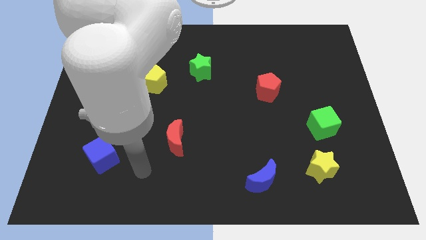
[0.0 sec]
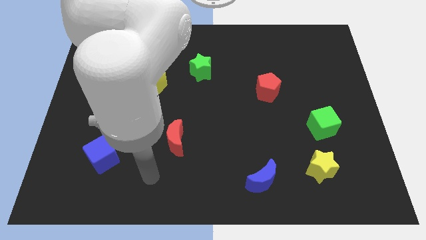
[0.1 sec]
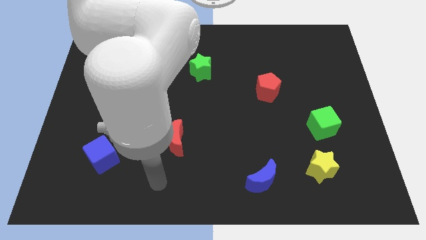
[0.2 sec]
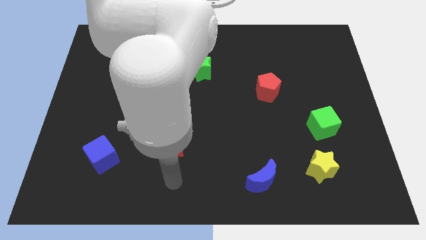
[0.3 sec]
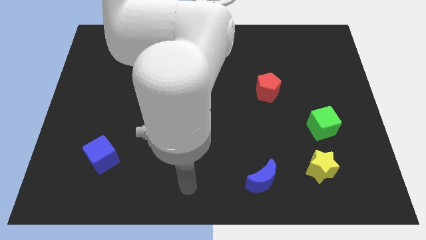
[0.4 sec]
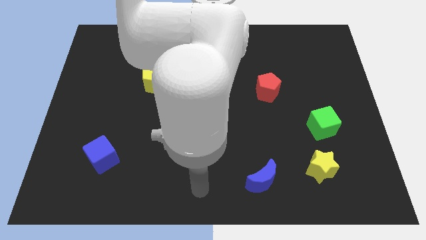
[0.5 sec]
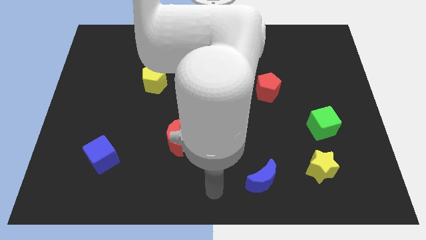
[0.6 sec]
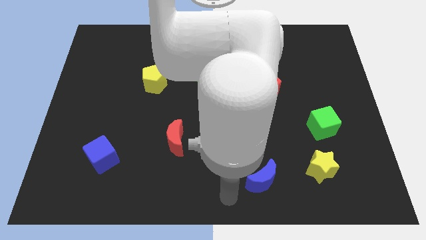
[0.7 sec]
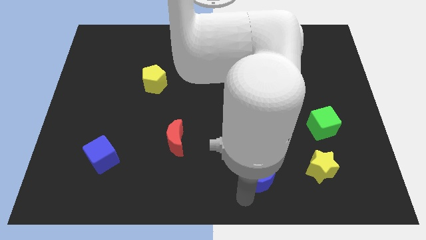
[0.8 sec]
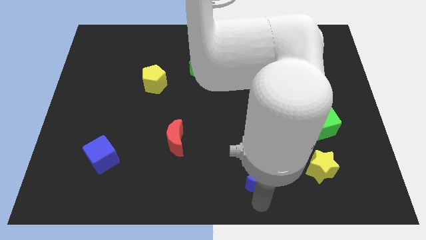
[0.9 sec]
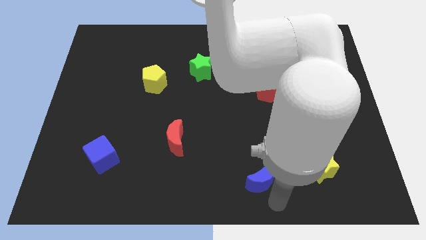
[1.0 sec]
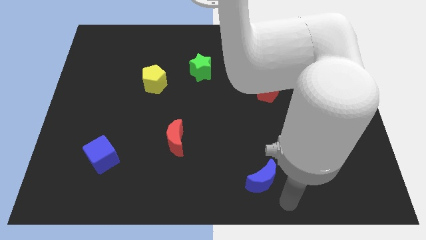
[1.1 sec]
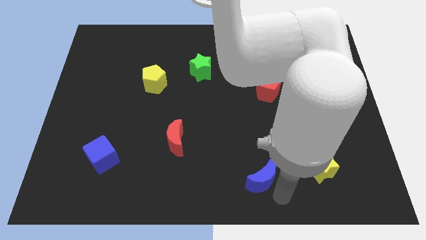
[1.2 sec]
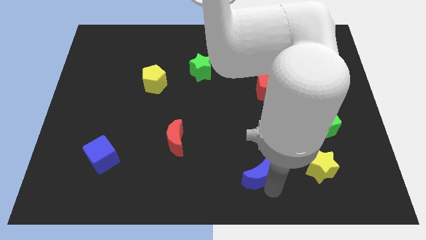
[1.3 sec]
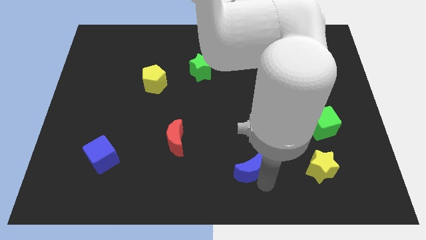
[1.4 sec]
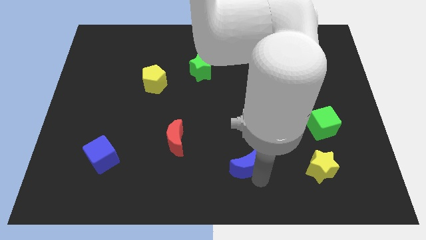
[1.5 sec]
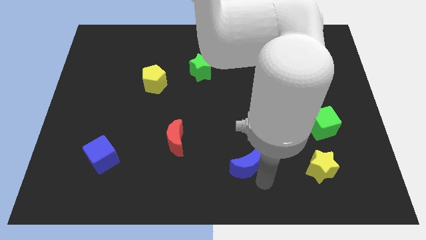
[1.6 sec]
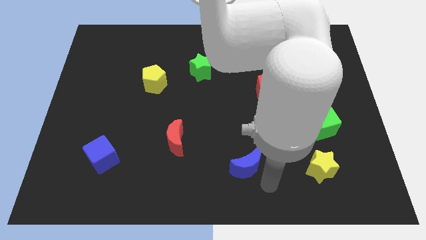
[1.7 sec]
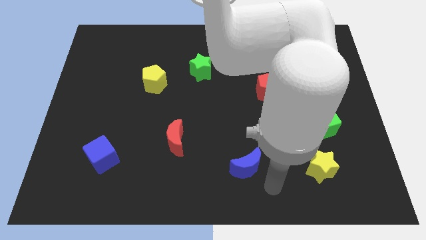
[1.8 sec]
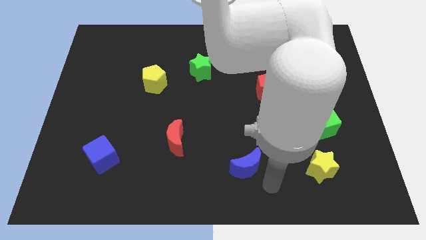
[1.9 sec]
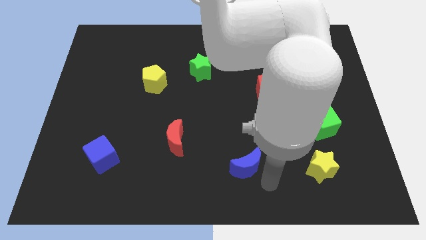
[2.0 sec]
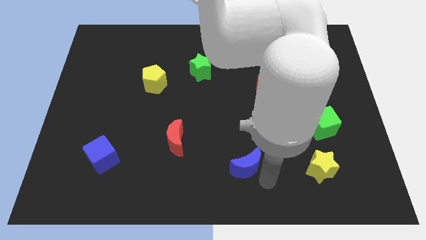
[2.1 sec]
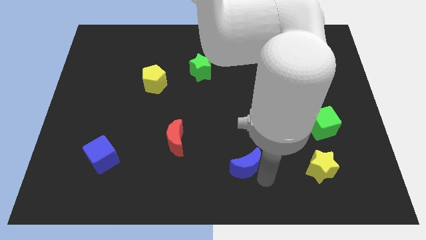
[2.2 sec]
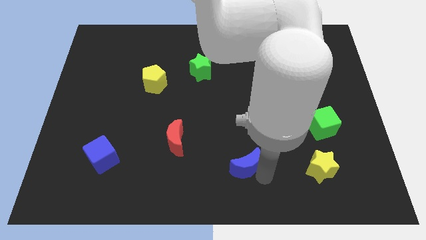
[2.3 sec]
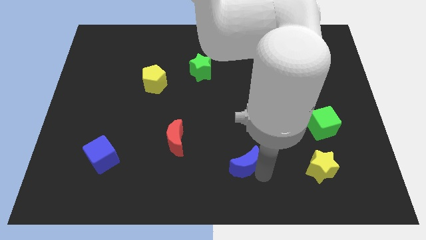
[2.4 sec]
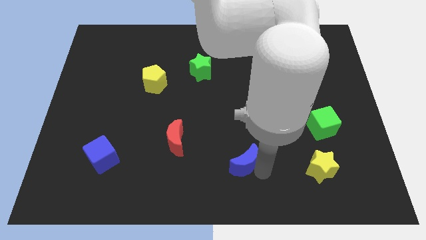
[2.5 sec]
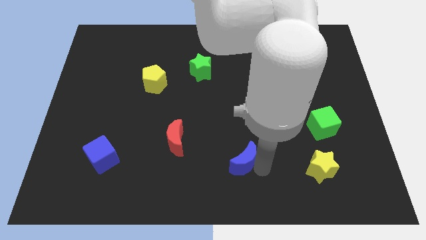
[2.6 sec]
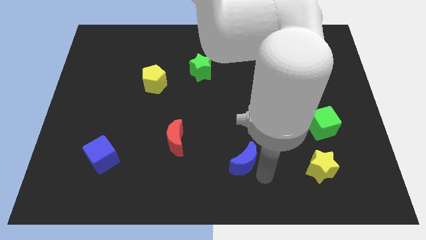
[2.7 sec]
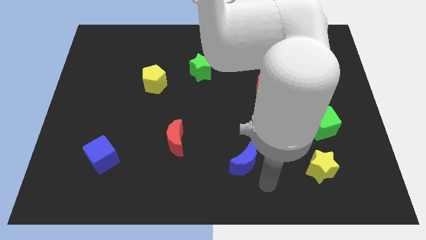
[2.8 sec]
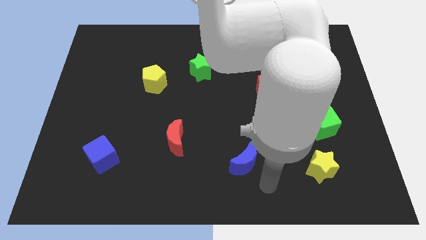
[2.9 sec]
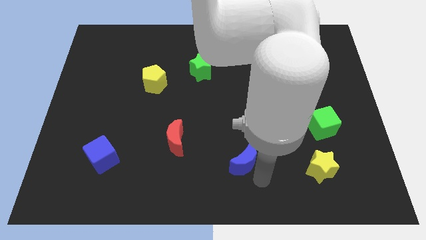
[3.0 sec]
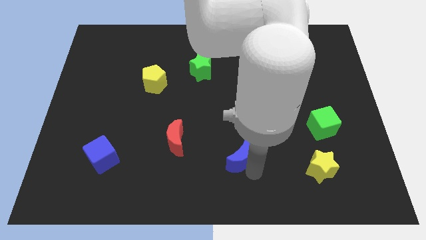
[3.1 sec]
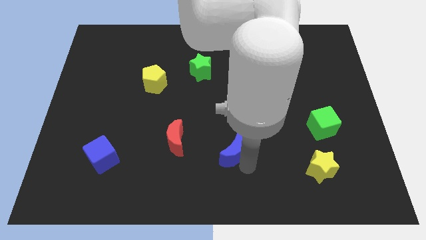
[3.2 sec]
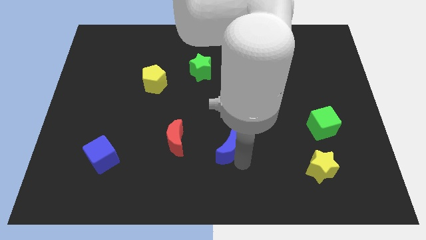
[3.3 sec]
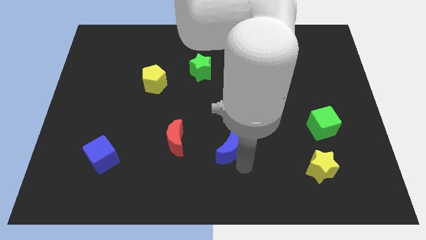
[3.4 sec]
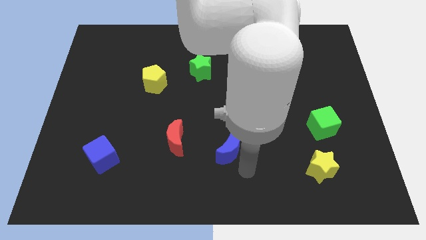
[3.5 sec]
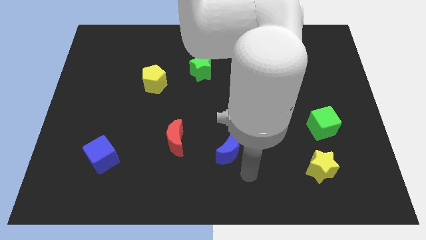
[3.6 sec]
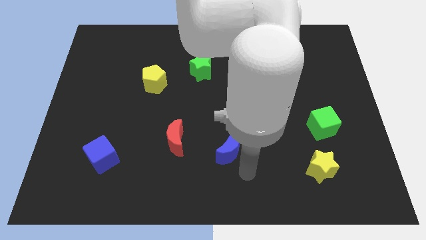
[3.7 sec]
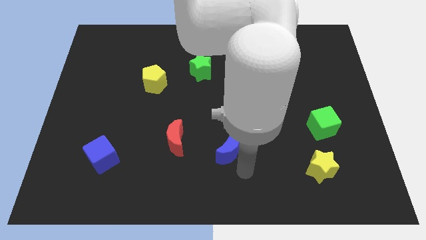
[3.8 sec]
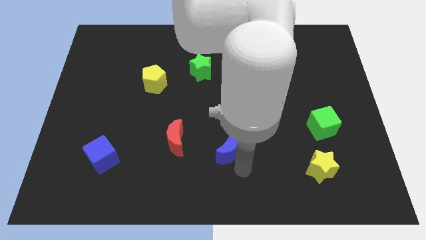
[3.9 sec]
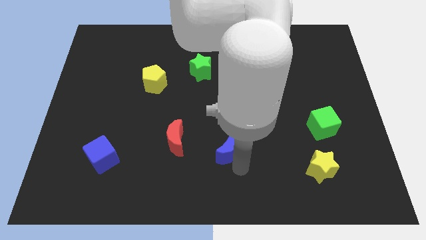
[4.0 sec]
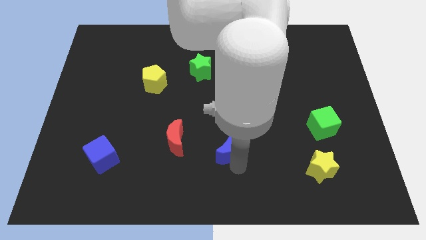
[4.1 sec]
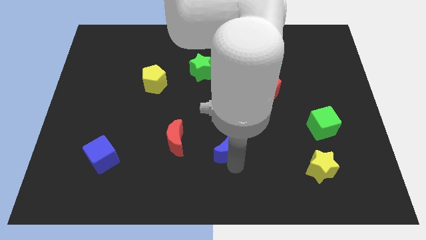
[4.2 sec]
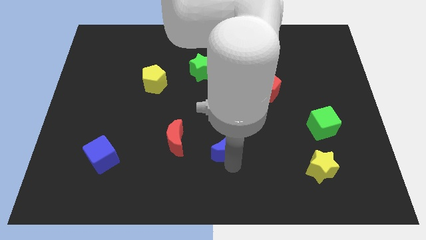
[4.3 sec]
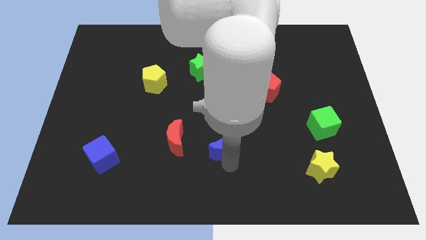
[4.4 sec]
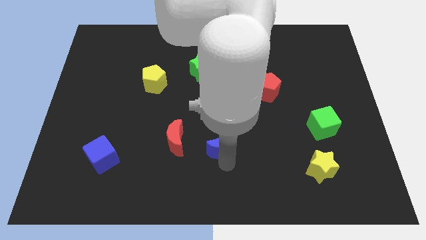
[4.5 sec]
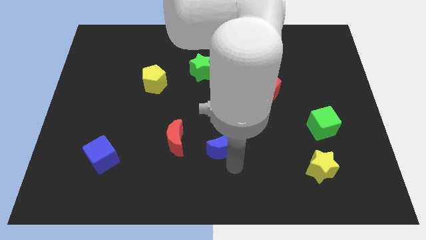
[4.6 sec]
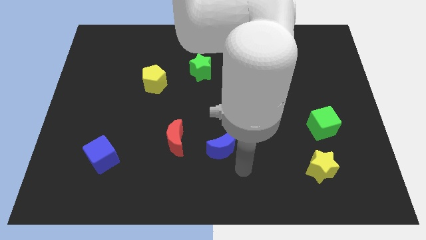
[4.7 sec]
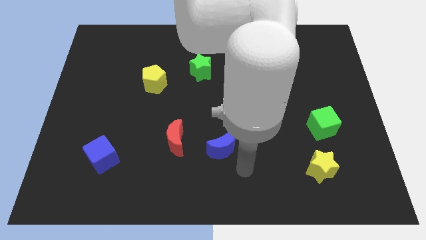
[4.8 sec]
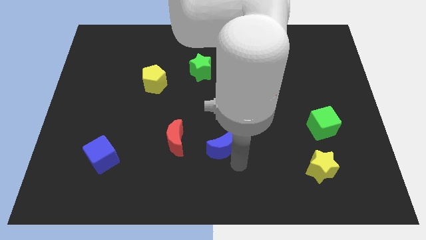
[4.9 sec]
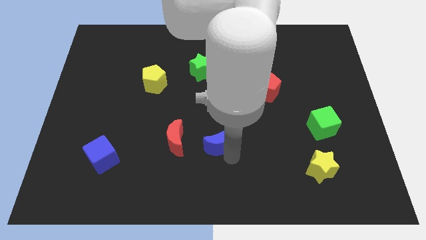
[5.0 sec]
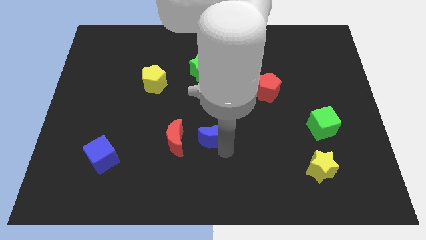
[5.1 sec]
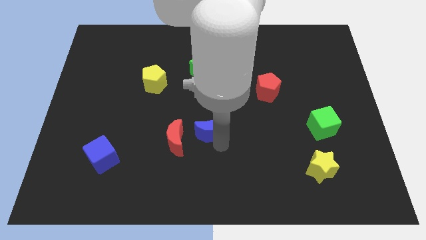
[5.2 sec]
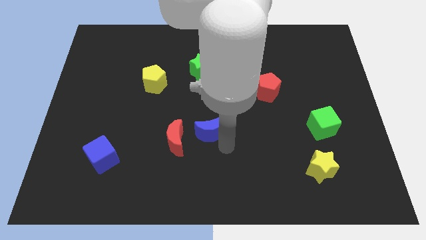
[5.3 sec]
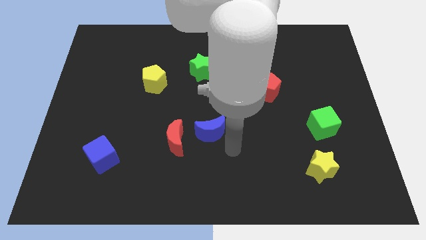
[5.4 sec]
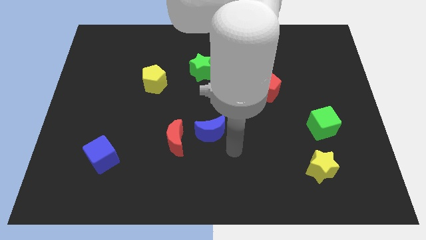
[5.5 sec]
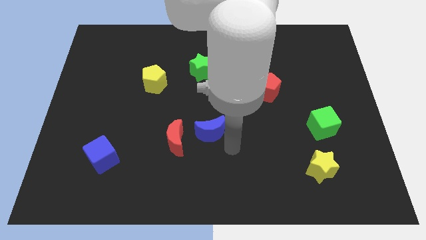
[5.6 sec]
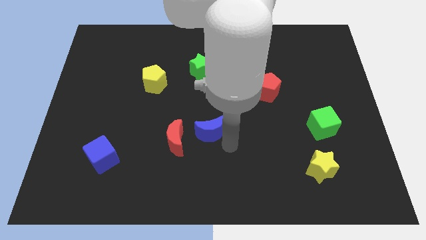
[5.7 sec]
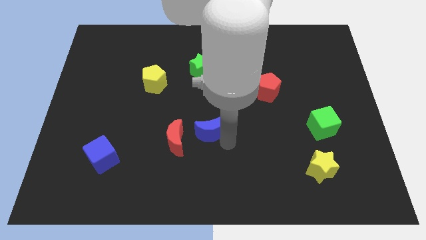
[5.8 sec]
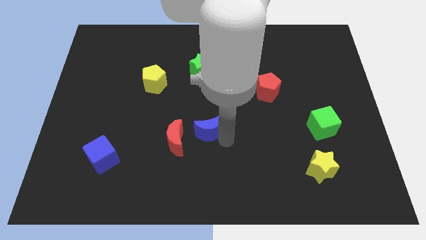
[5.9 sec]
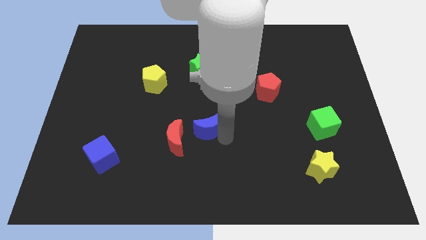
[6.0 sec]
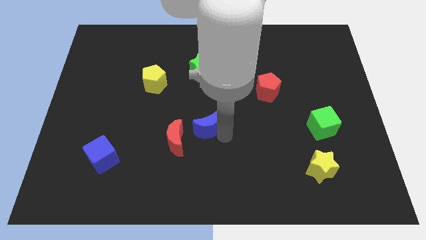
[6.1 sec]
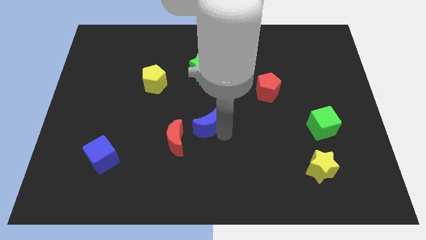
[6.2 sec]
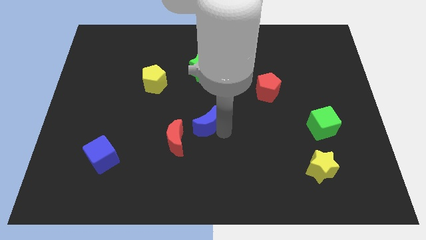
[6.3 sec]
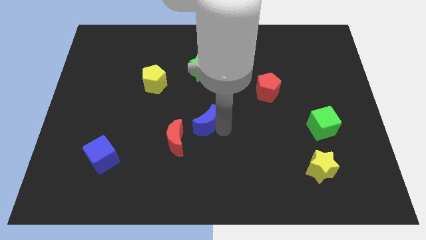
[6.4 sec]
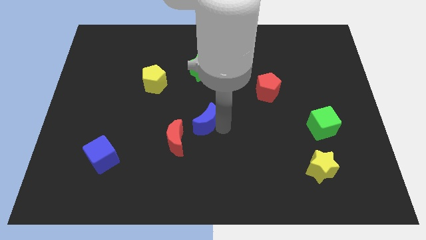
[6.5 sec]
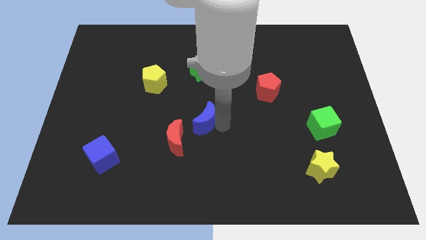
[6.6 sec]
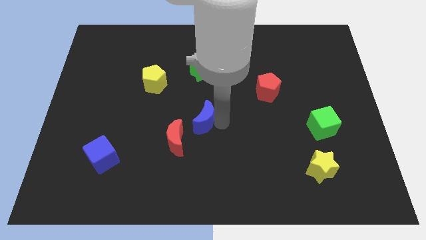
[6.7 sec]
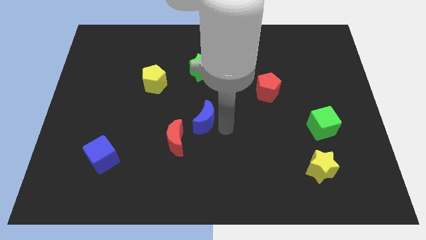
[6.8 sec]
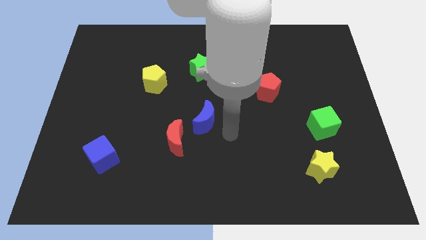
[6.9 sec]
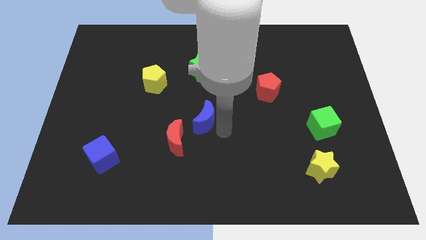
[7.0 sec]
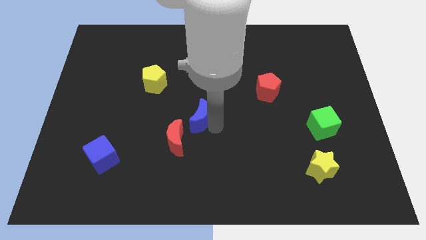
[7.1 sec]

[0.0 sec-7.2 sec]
slide the blue moon diagonally upwards and to the left

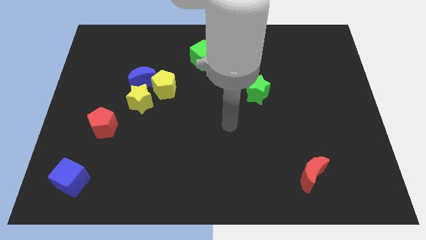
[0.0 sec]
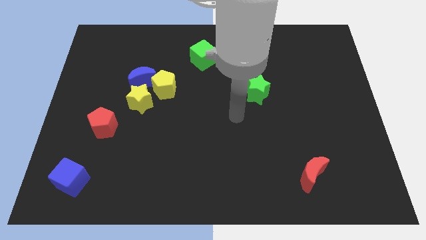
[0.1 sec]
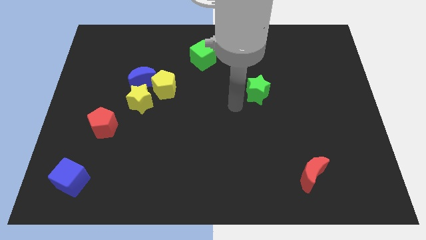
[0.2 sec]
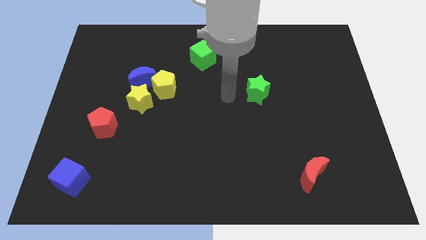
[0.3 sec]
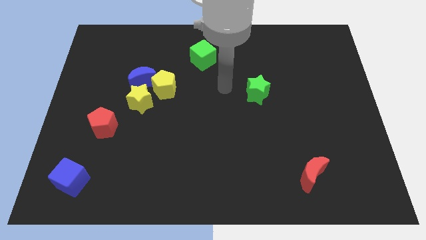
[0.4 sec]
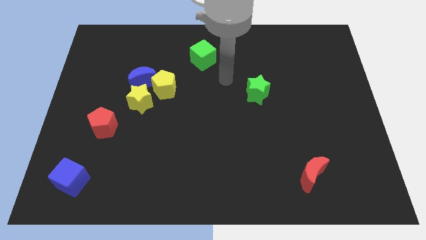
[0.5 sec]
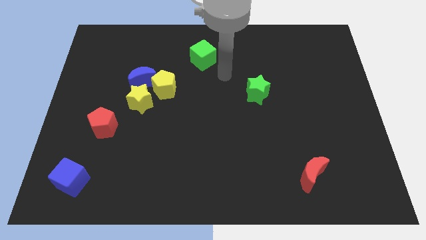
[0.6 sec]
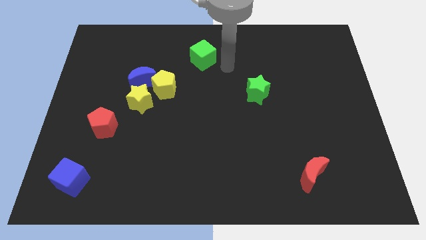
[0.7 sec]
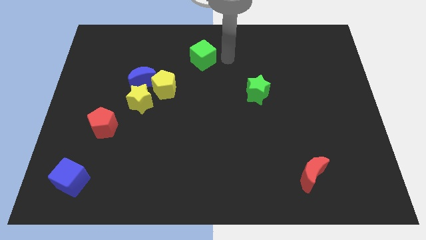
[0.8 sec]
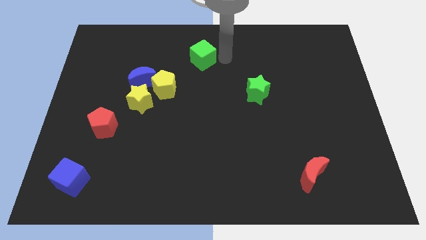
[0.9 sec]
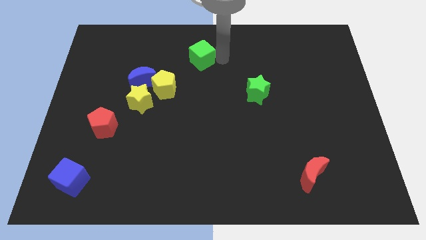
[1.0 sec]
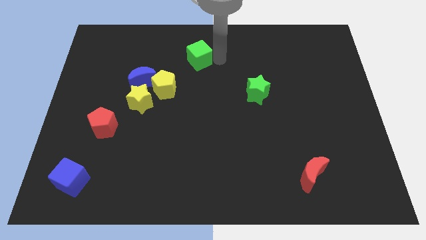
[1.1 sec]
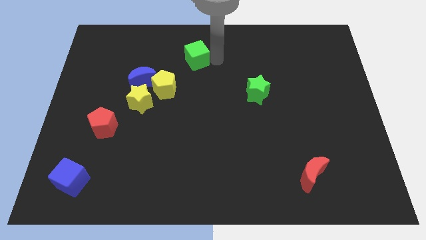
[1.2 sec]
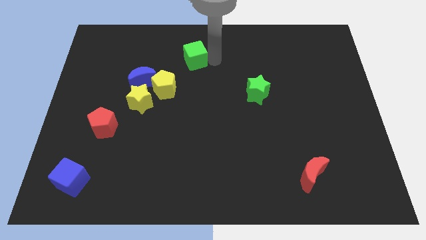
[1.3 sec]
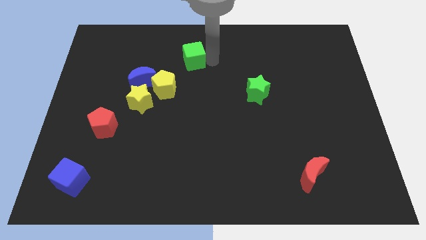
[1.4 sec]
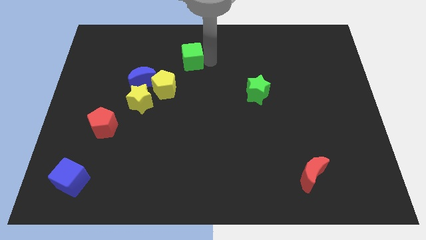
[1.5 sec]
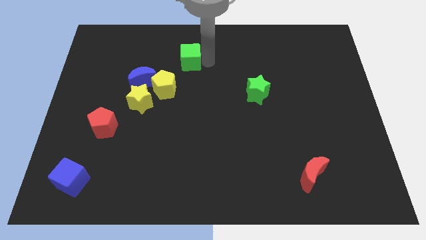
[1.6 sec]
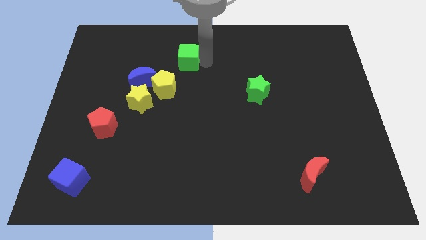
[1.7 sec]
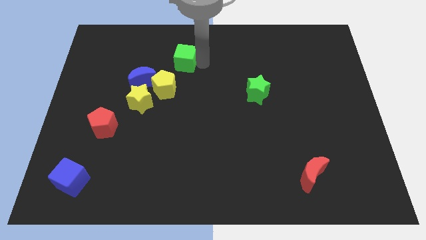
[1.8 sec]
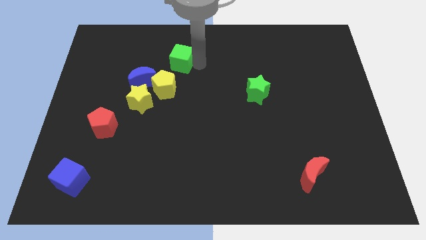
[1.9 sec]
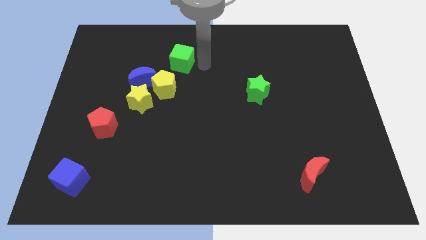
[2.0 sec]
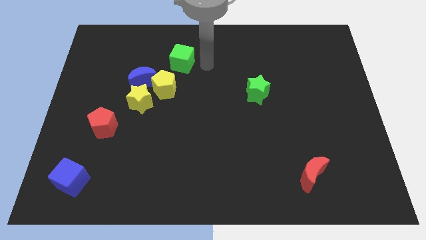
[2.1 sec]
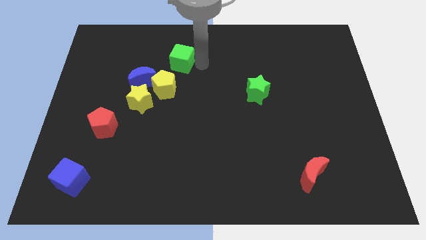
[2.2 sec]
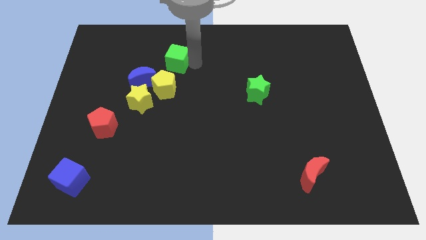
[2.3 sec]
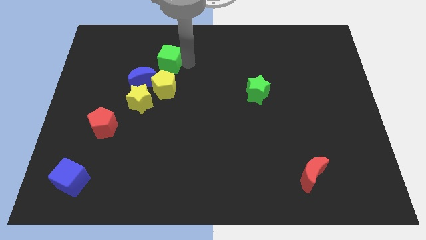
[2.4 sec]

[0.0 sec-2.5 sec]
move the green cube to the left slightly
